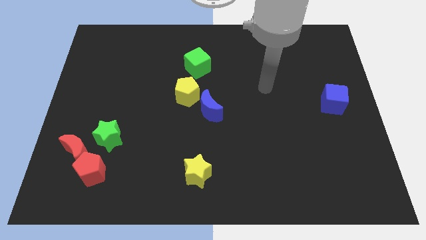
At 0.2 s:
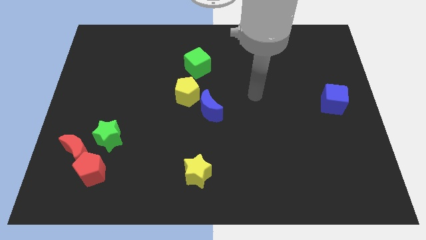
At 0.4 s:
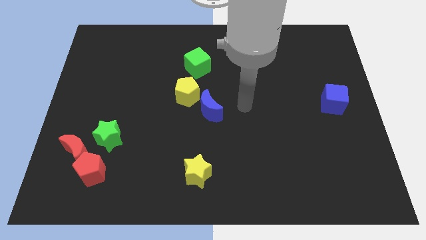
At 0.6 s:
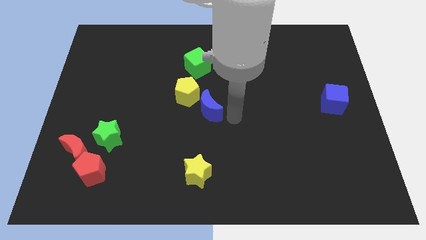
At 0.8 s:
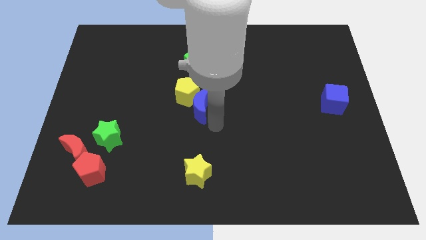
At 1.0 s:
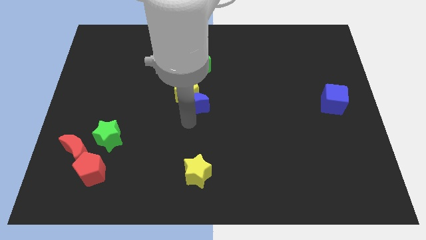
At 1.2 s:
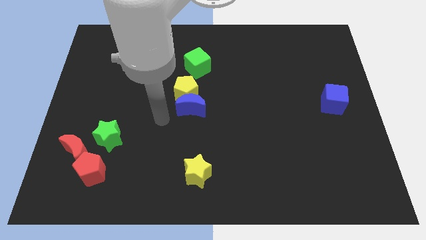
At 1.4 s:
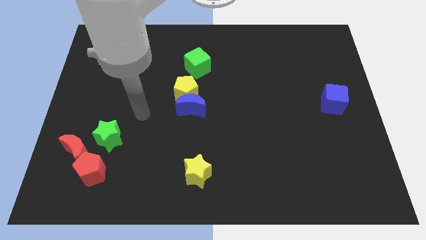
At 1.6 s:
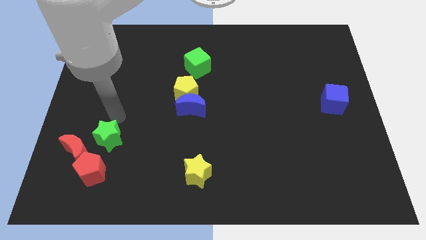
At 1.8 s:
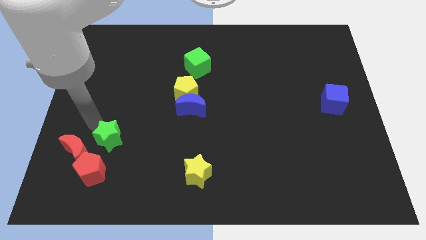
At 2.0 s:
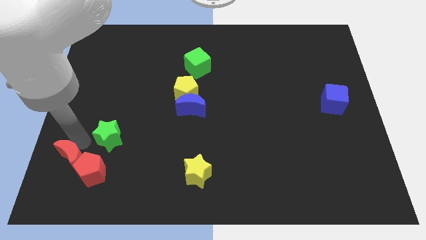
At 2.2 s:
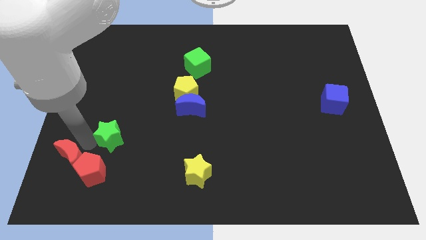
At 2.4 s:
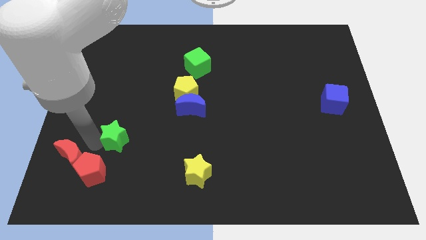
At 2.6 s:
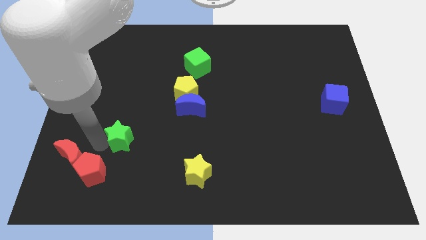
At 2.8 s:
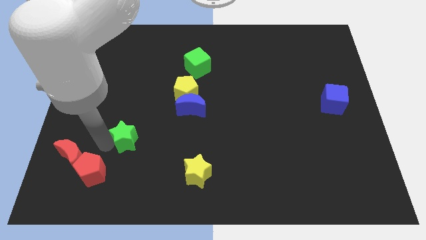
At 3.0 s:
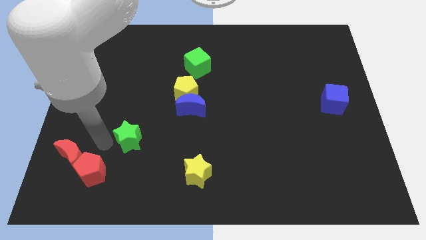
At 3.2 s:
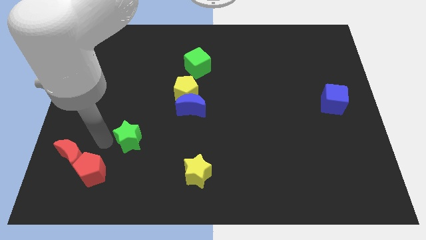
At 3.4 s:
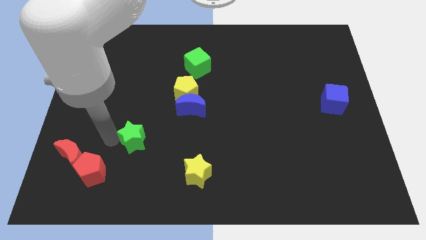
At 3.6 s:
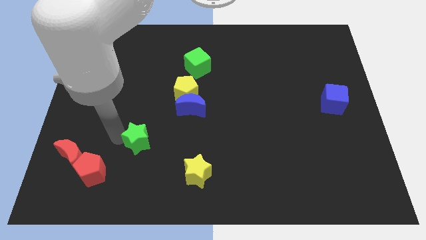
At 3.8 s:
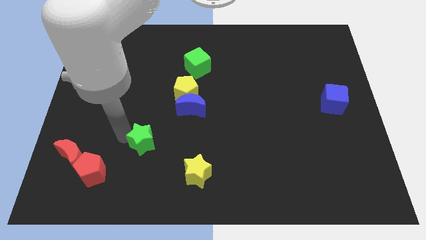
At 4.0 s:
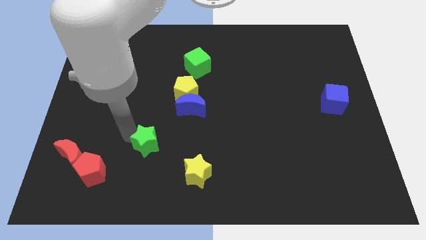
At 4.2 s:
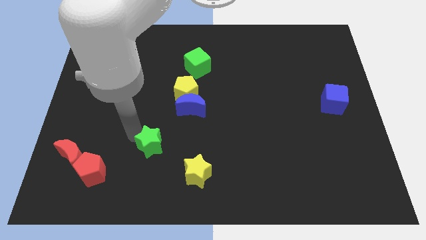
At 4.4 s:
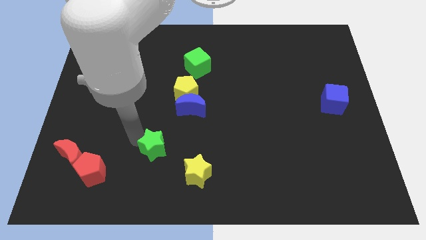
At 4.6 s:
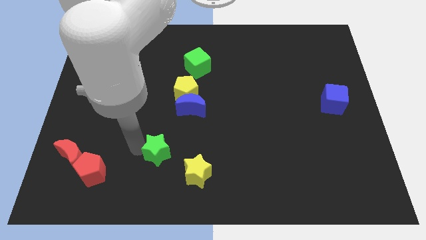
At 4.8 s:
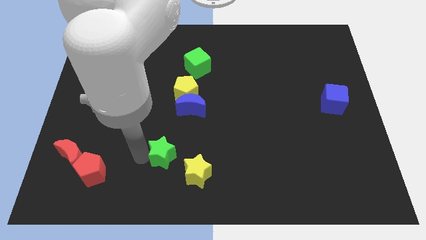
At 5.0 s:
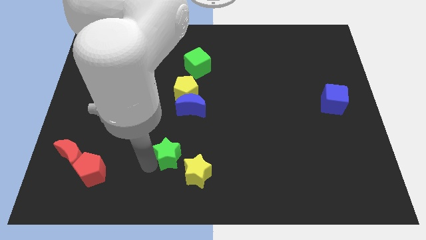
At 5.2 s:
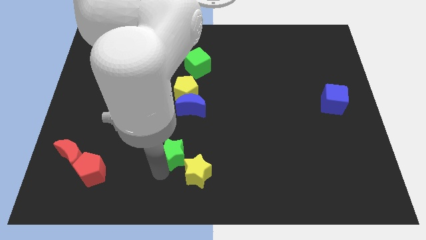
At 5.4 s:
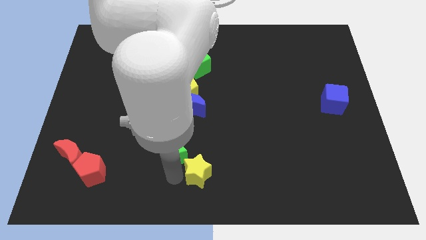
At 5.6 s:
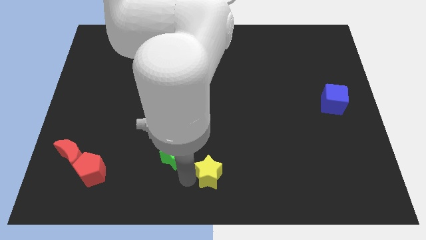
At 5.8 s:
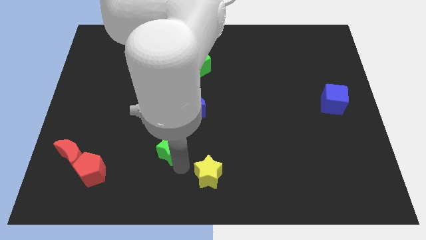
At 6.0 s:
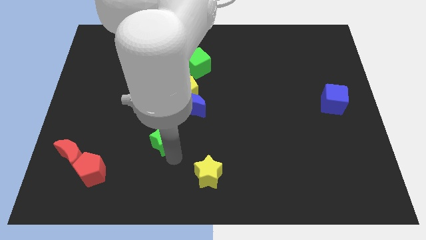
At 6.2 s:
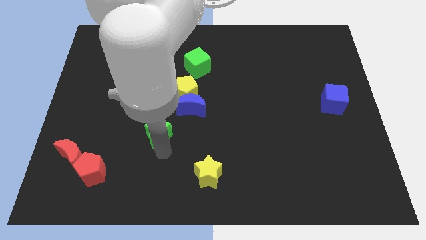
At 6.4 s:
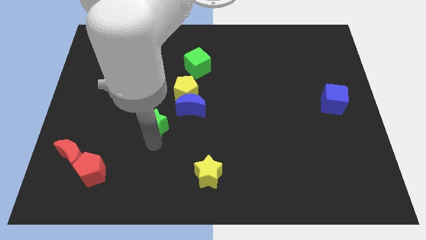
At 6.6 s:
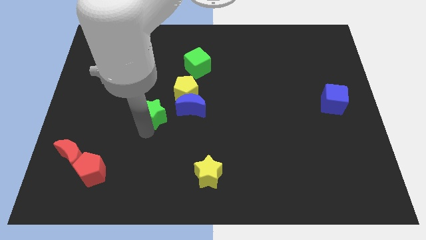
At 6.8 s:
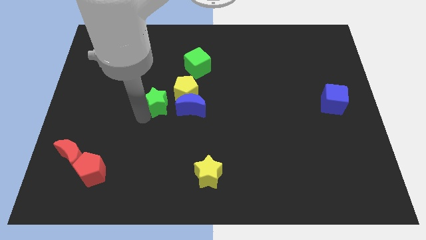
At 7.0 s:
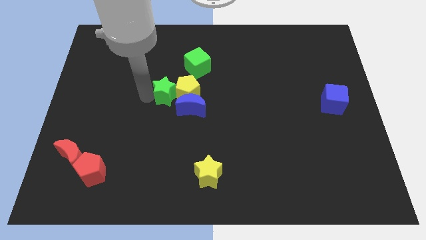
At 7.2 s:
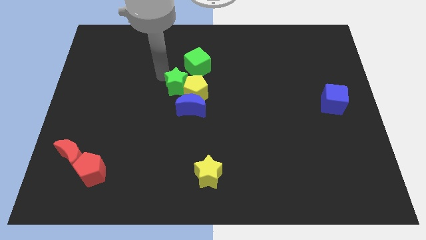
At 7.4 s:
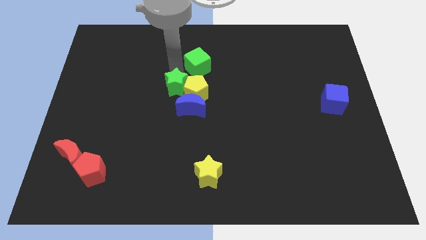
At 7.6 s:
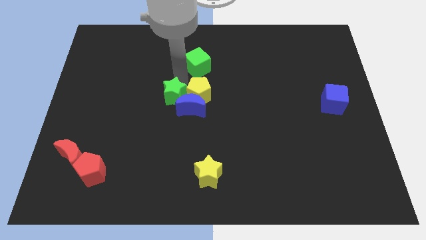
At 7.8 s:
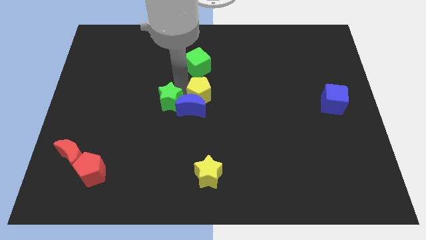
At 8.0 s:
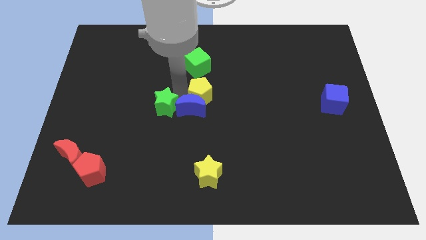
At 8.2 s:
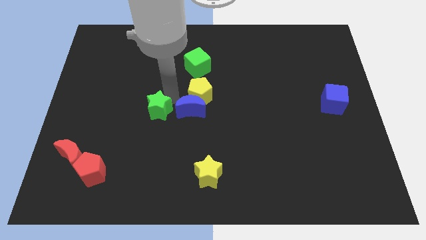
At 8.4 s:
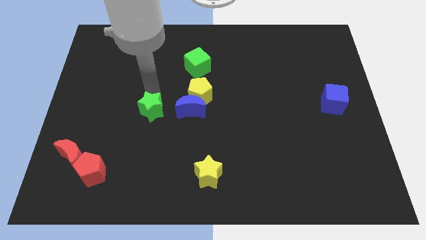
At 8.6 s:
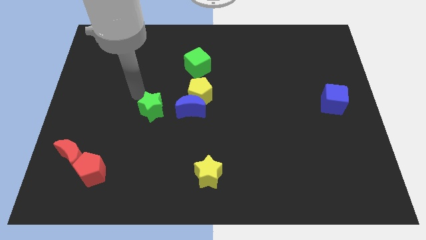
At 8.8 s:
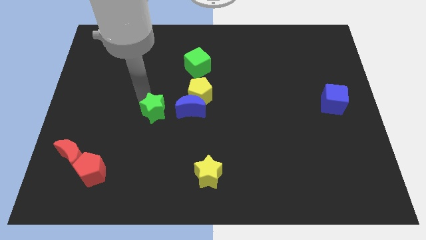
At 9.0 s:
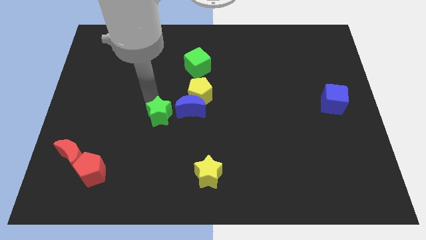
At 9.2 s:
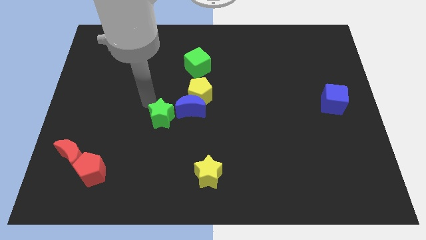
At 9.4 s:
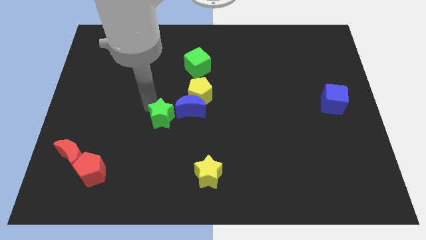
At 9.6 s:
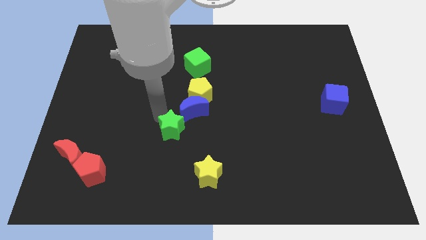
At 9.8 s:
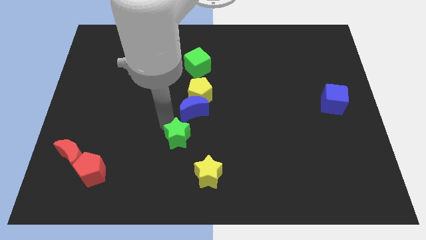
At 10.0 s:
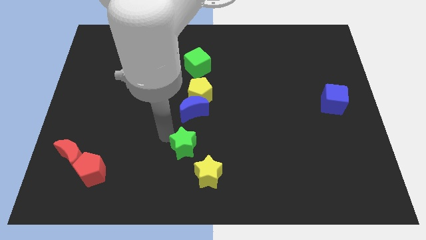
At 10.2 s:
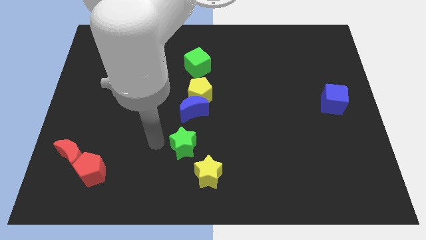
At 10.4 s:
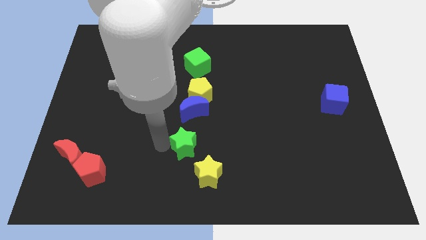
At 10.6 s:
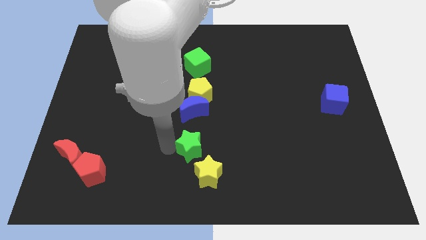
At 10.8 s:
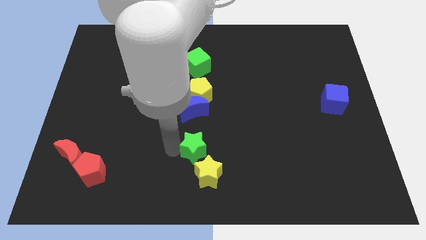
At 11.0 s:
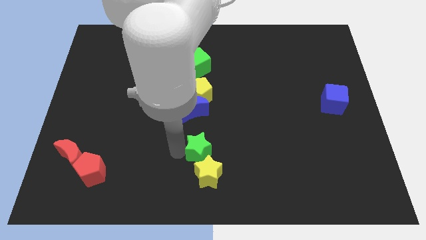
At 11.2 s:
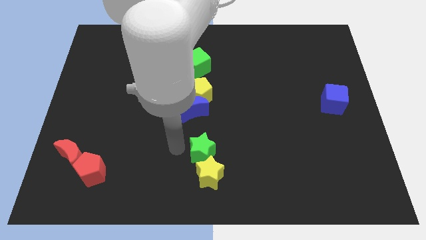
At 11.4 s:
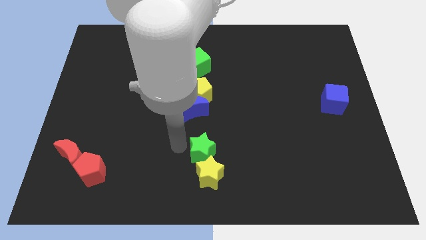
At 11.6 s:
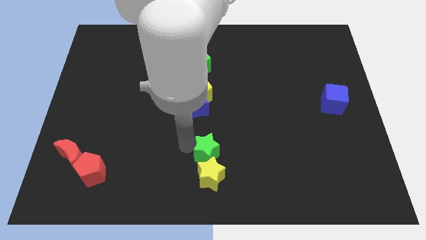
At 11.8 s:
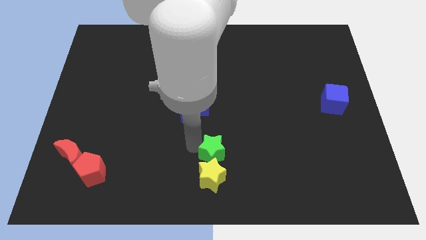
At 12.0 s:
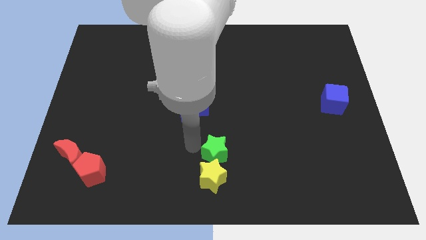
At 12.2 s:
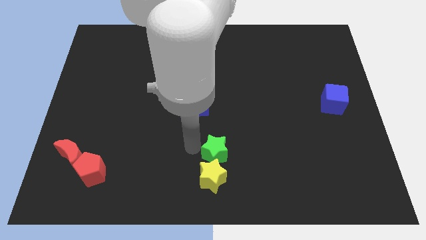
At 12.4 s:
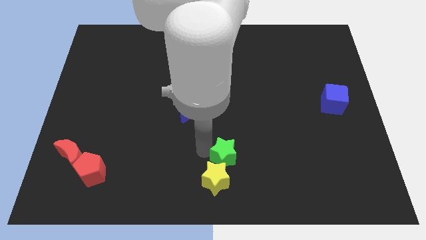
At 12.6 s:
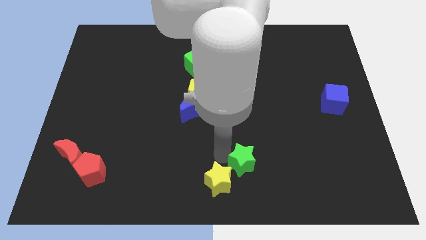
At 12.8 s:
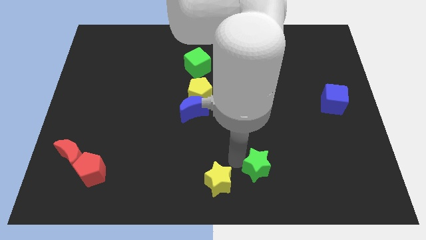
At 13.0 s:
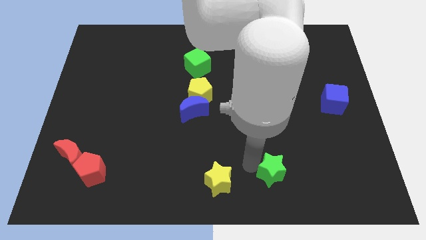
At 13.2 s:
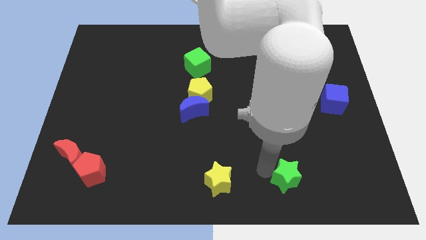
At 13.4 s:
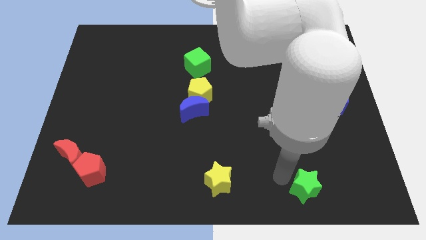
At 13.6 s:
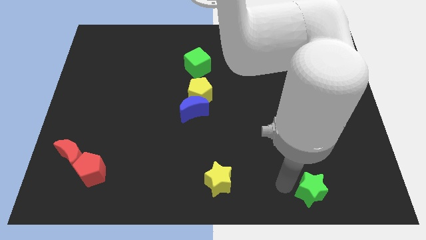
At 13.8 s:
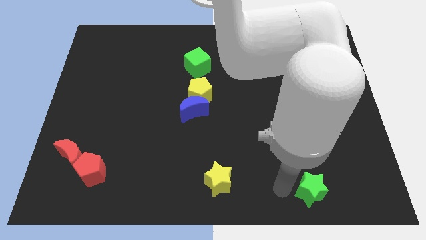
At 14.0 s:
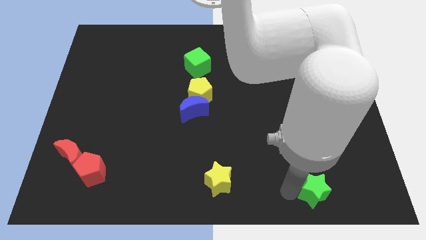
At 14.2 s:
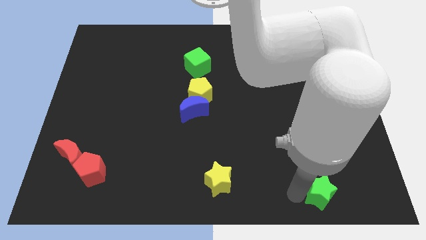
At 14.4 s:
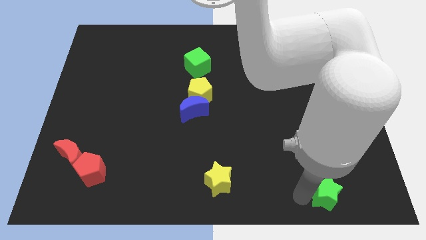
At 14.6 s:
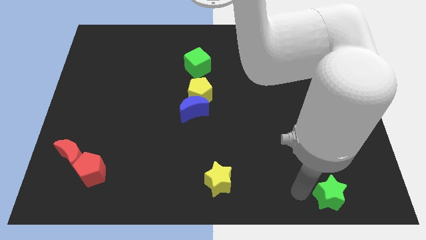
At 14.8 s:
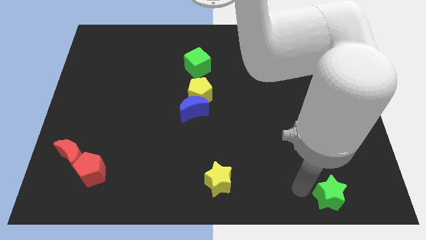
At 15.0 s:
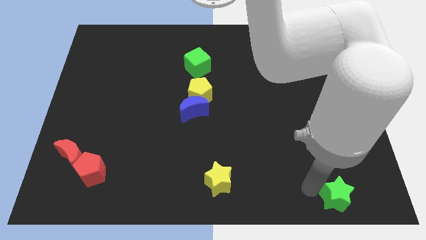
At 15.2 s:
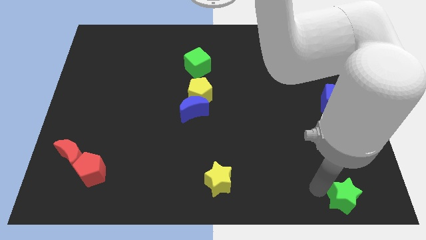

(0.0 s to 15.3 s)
slide the green star to the bottom right
